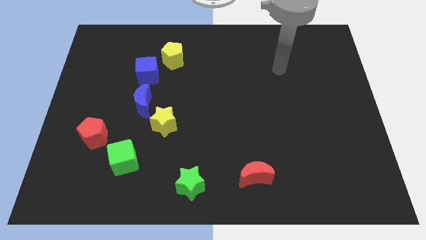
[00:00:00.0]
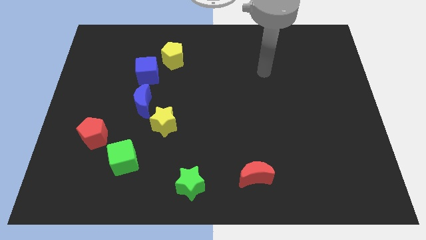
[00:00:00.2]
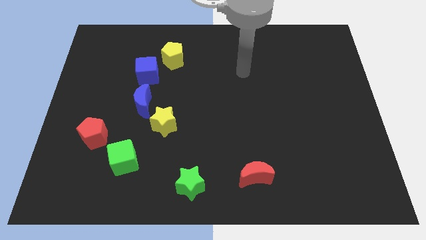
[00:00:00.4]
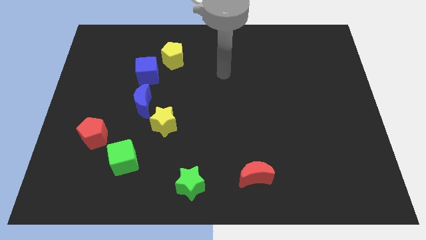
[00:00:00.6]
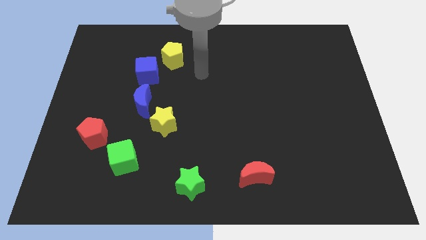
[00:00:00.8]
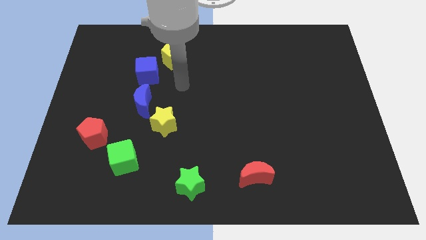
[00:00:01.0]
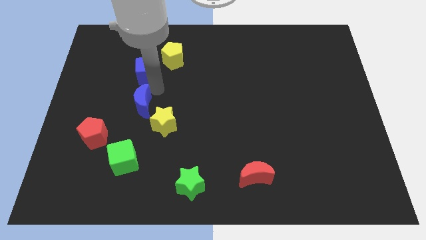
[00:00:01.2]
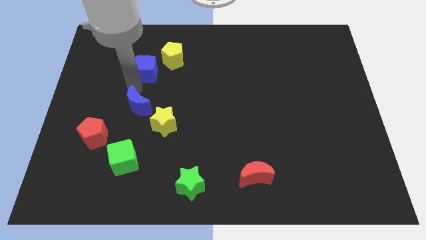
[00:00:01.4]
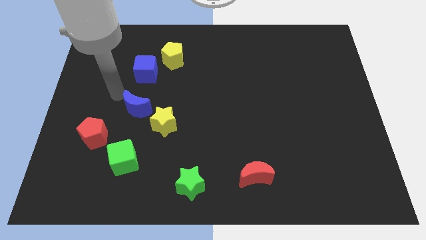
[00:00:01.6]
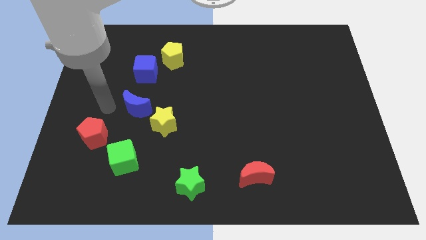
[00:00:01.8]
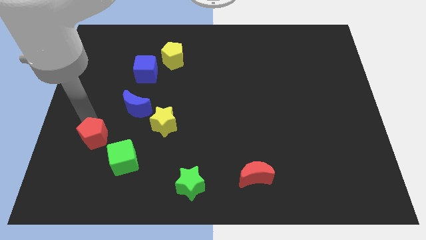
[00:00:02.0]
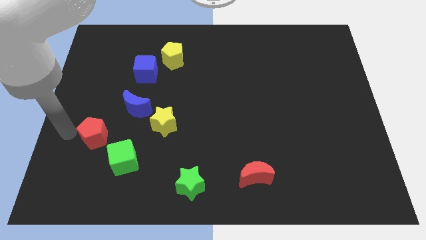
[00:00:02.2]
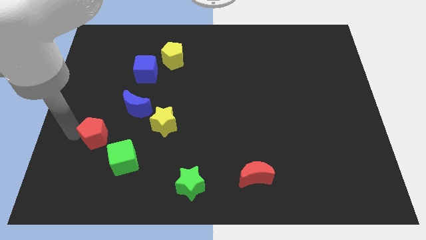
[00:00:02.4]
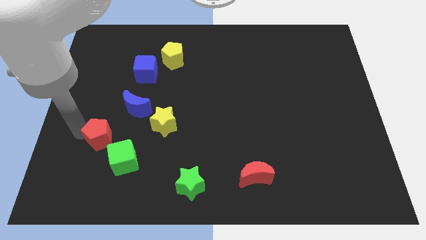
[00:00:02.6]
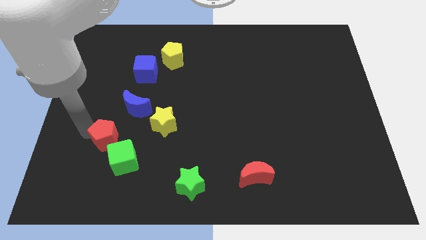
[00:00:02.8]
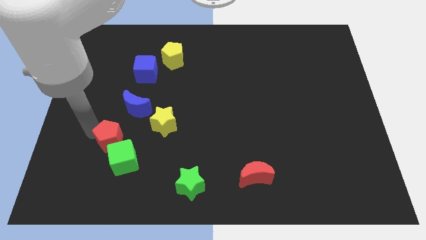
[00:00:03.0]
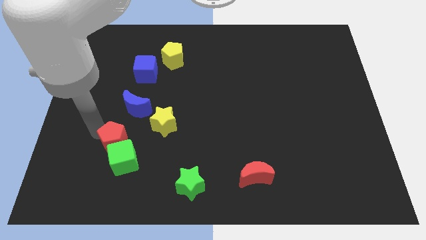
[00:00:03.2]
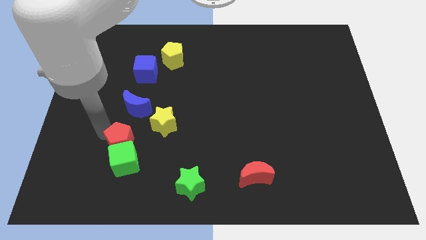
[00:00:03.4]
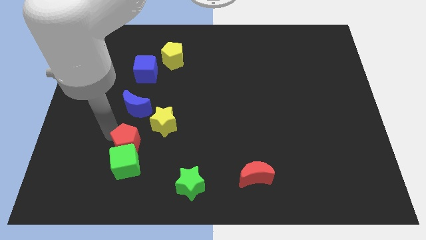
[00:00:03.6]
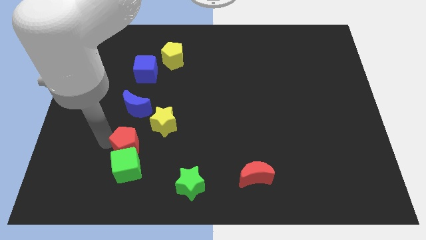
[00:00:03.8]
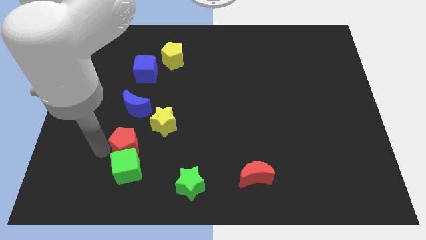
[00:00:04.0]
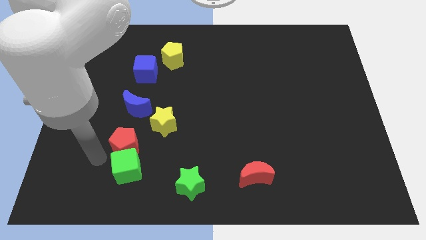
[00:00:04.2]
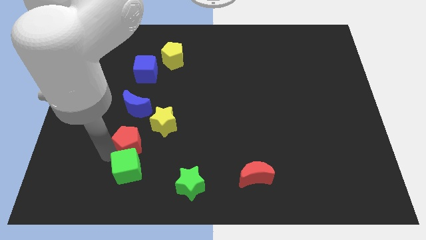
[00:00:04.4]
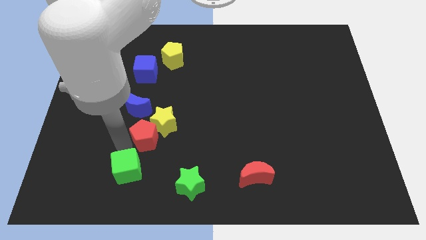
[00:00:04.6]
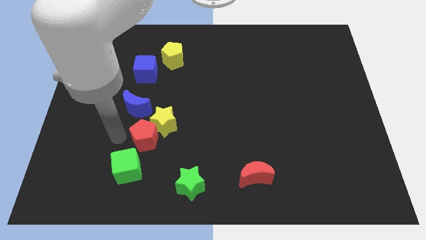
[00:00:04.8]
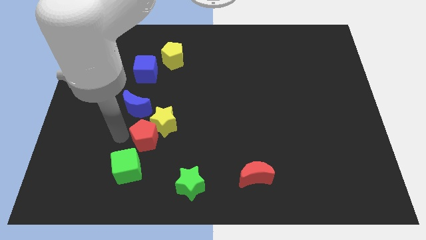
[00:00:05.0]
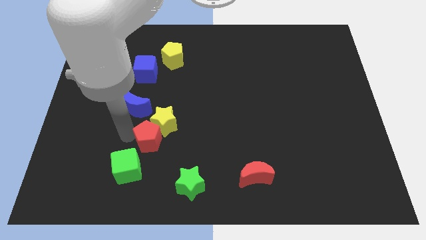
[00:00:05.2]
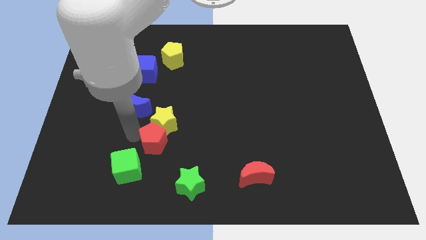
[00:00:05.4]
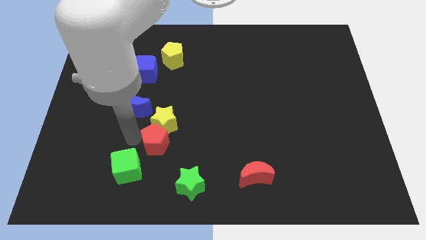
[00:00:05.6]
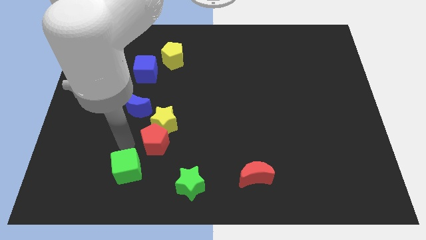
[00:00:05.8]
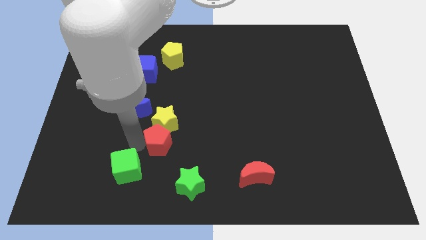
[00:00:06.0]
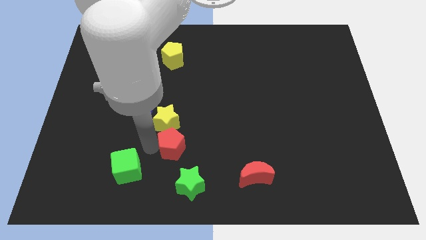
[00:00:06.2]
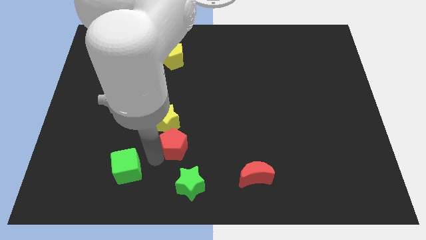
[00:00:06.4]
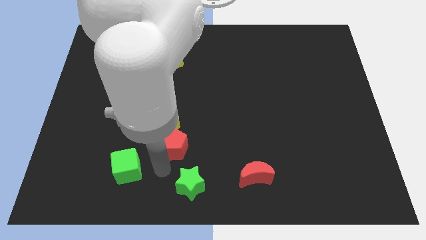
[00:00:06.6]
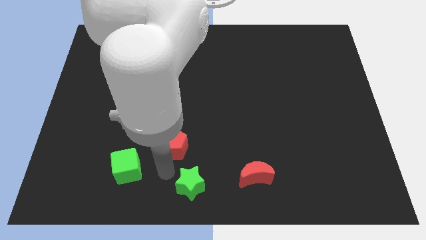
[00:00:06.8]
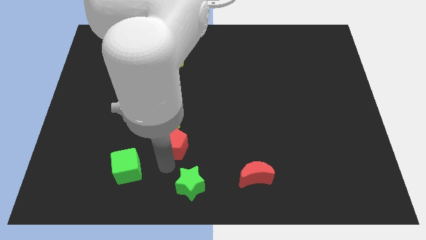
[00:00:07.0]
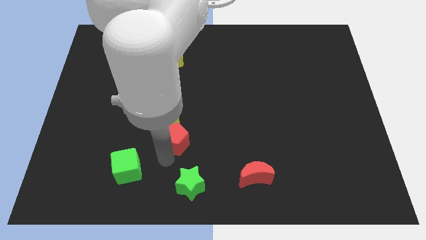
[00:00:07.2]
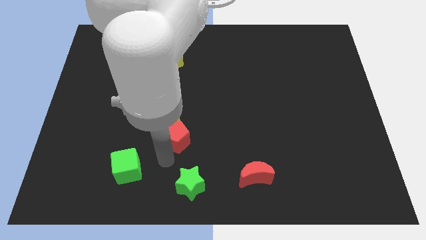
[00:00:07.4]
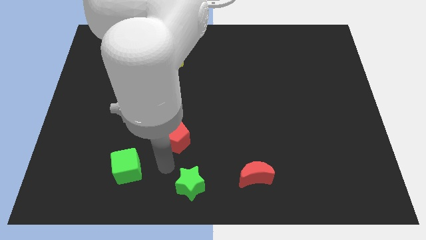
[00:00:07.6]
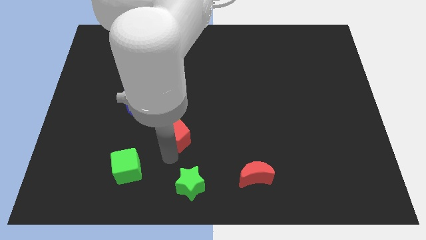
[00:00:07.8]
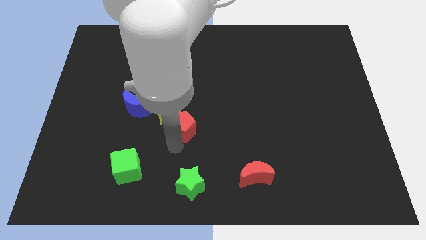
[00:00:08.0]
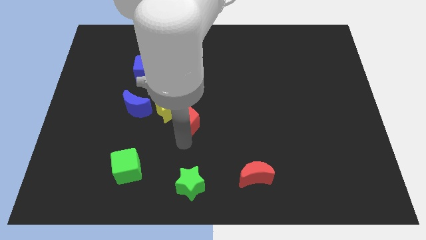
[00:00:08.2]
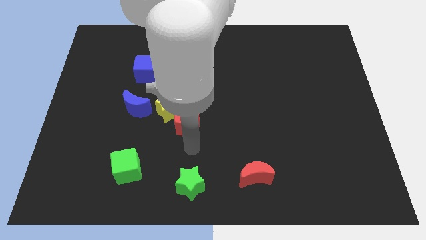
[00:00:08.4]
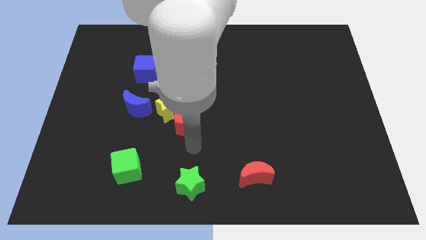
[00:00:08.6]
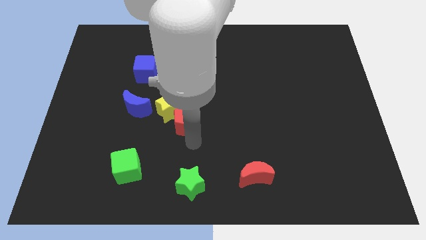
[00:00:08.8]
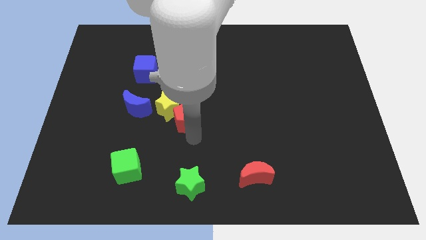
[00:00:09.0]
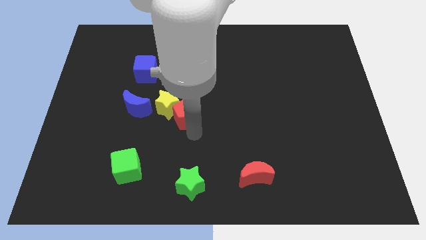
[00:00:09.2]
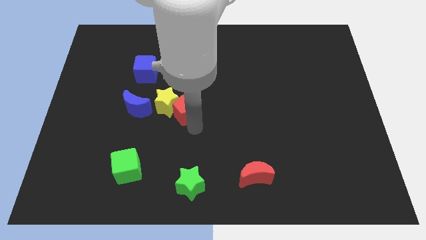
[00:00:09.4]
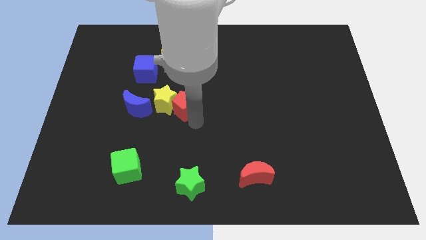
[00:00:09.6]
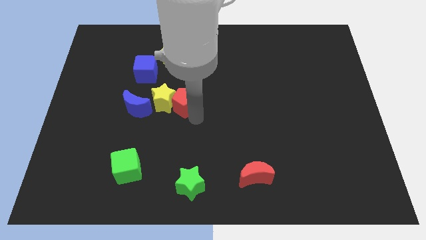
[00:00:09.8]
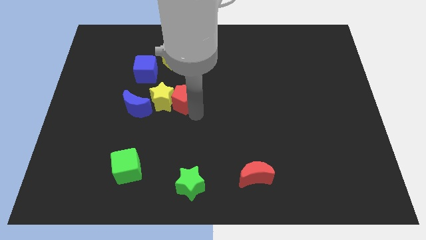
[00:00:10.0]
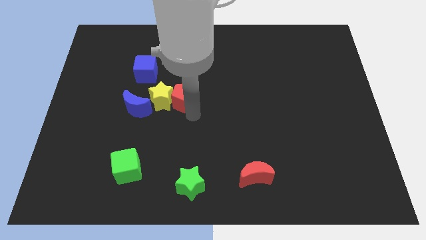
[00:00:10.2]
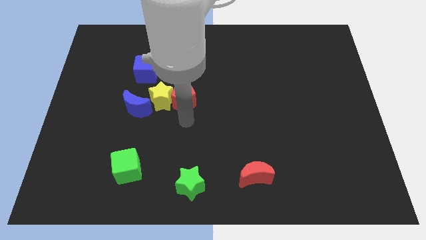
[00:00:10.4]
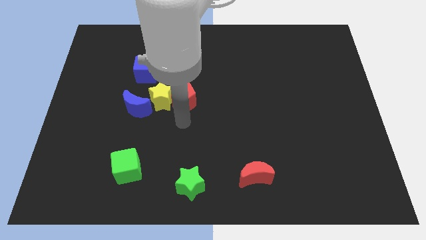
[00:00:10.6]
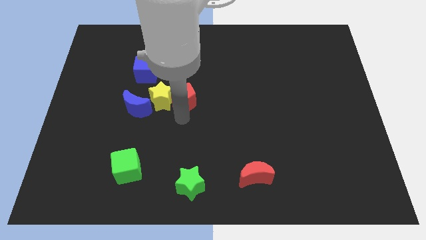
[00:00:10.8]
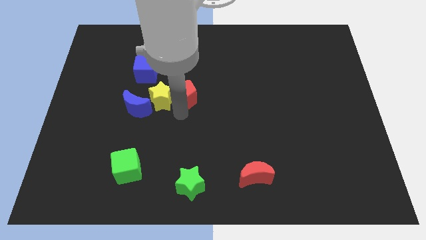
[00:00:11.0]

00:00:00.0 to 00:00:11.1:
move the red pentagon up and then right

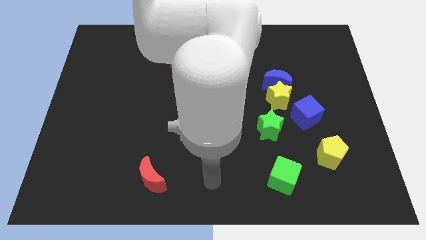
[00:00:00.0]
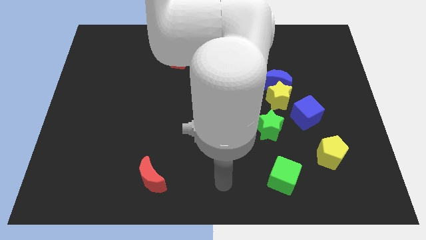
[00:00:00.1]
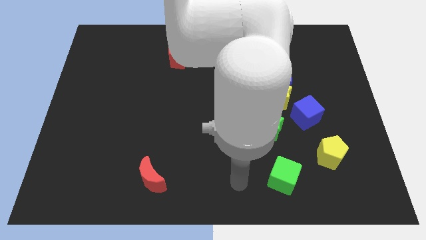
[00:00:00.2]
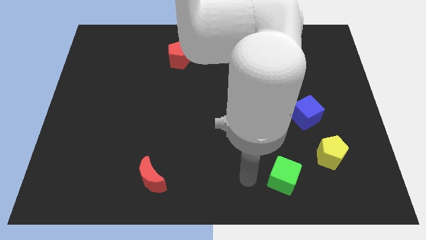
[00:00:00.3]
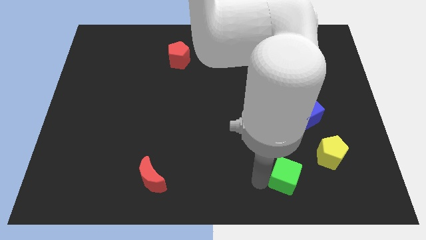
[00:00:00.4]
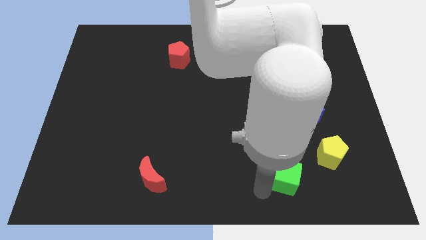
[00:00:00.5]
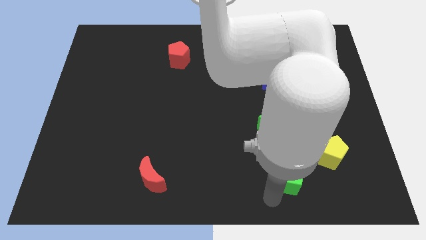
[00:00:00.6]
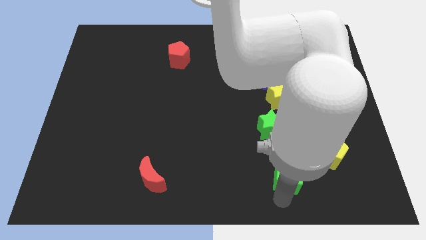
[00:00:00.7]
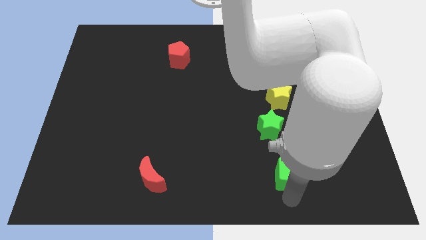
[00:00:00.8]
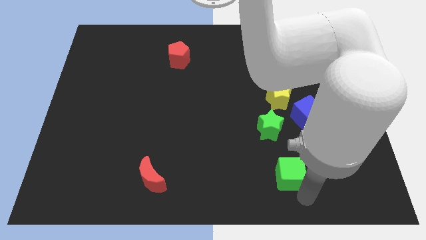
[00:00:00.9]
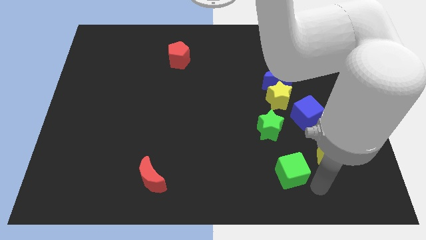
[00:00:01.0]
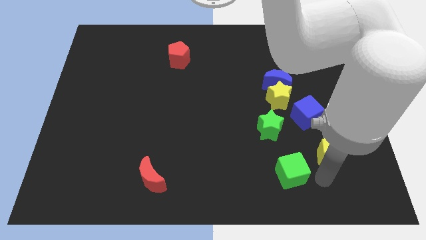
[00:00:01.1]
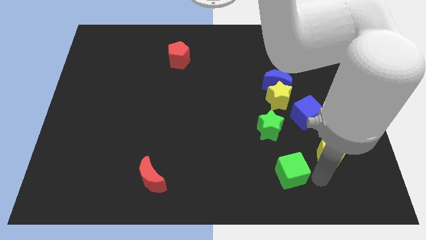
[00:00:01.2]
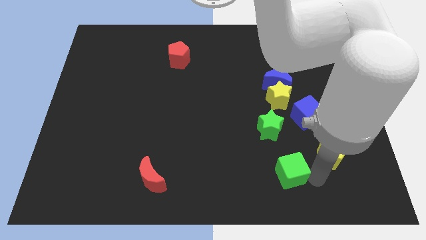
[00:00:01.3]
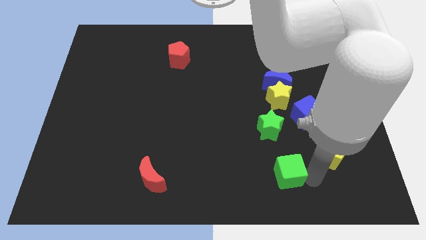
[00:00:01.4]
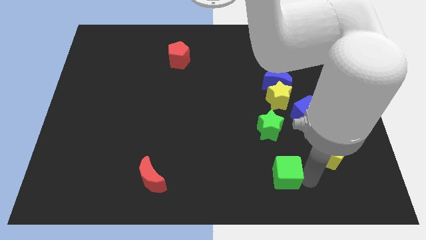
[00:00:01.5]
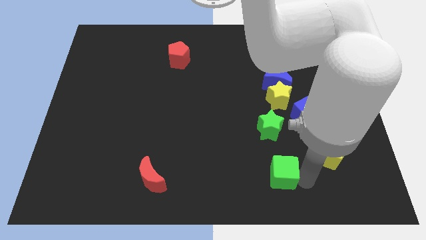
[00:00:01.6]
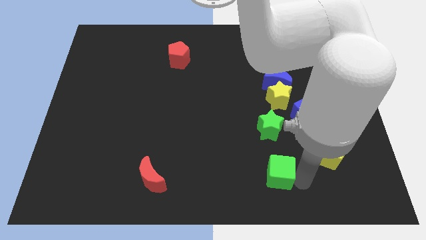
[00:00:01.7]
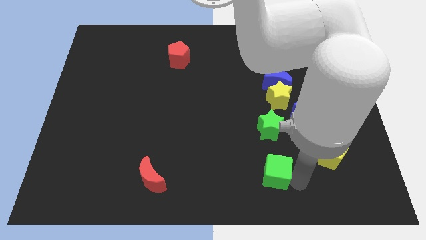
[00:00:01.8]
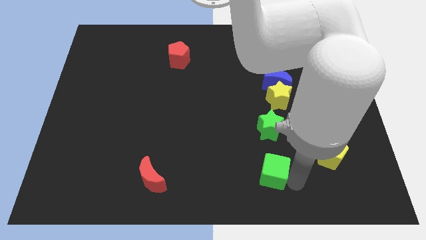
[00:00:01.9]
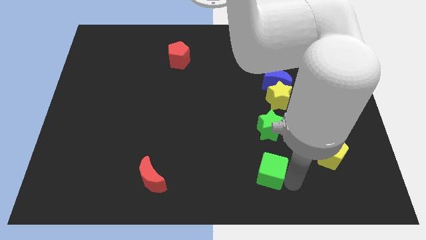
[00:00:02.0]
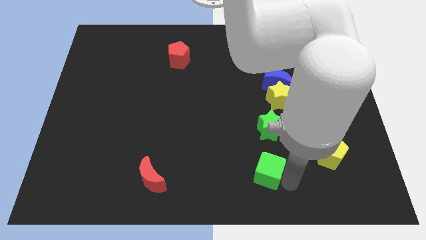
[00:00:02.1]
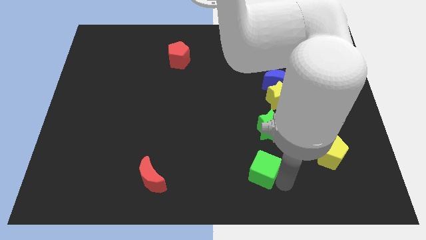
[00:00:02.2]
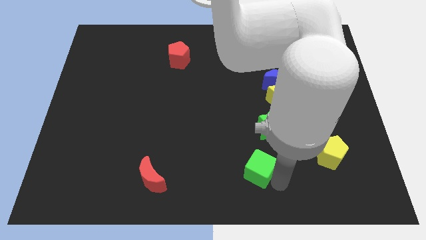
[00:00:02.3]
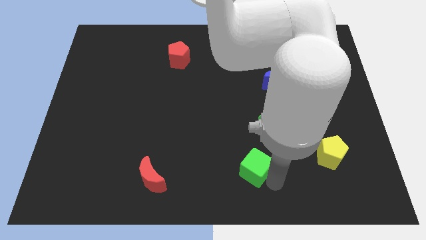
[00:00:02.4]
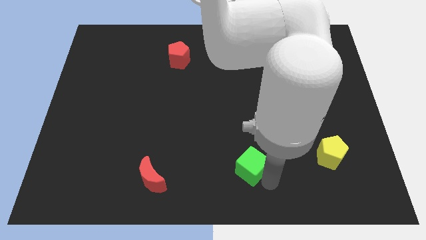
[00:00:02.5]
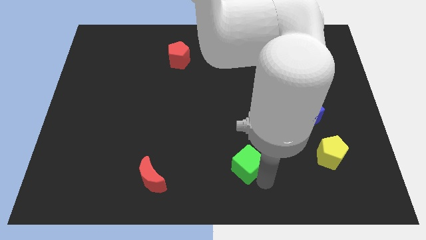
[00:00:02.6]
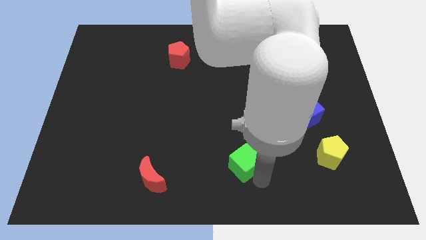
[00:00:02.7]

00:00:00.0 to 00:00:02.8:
move the green cube a little bit up and to the left diagonally
